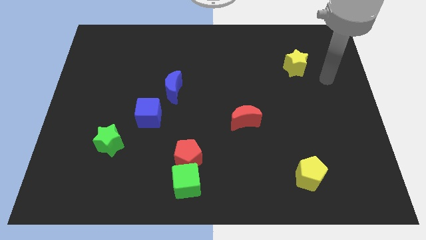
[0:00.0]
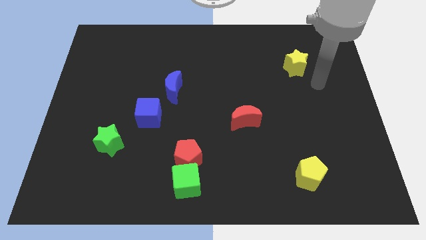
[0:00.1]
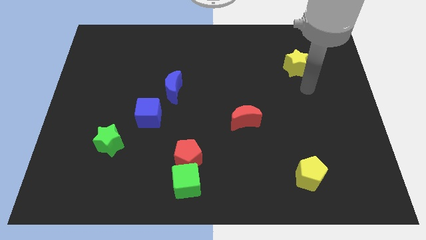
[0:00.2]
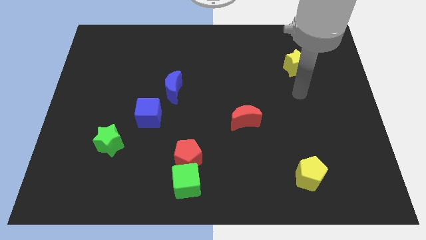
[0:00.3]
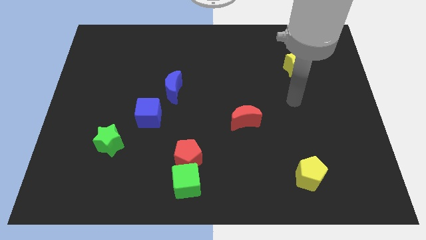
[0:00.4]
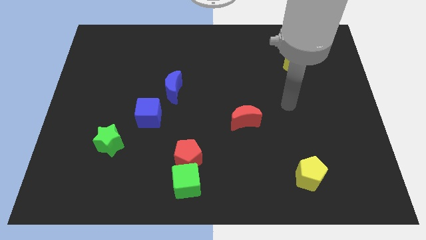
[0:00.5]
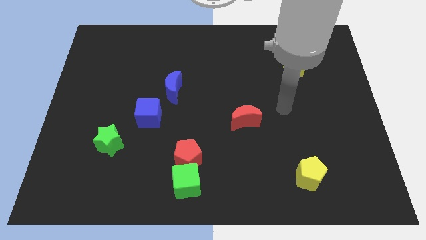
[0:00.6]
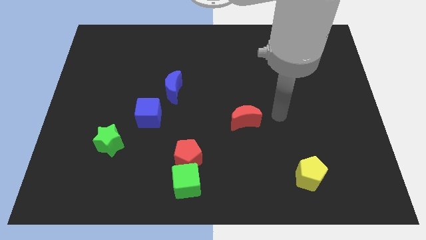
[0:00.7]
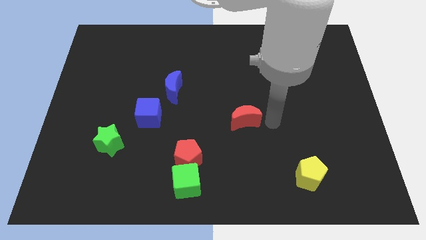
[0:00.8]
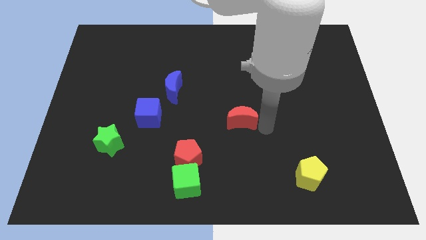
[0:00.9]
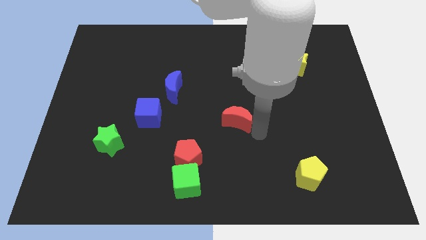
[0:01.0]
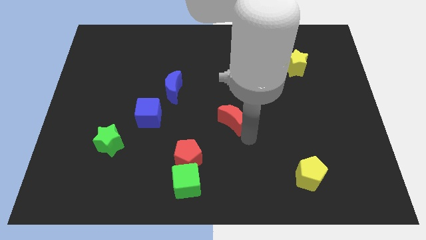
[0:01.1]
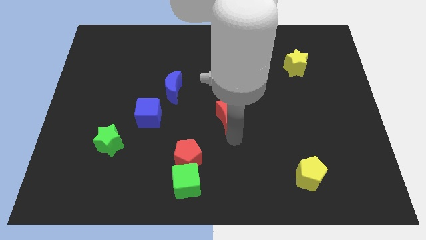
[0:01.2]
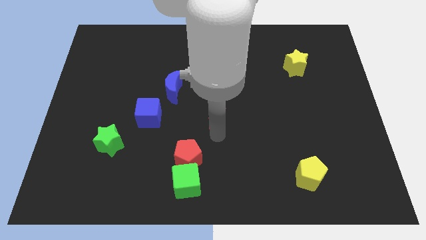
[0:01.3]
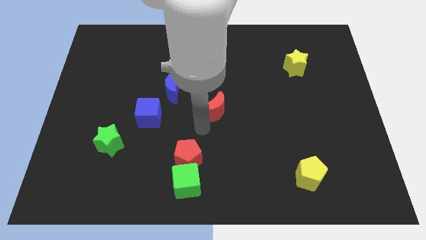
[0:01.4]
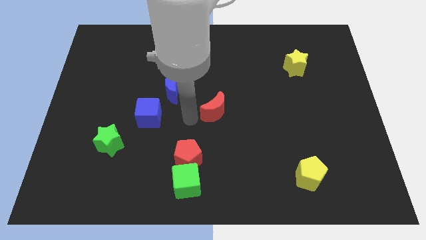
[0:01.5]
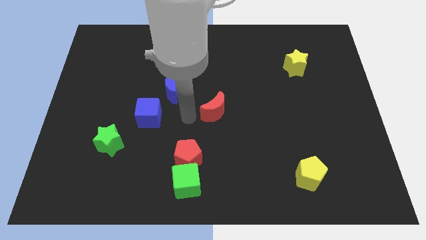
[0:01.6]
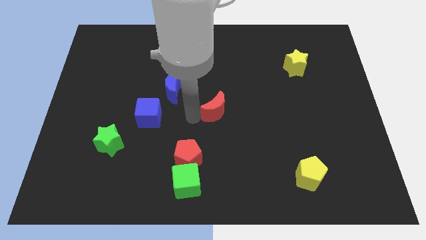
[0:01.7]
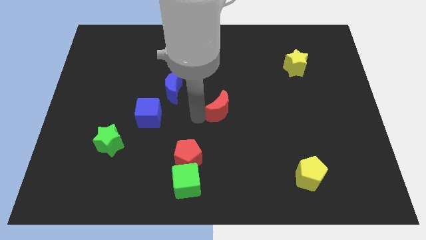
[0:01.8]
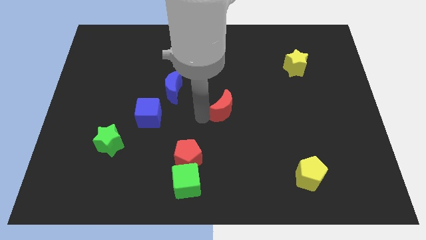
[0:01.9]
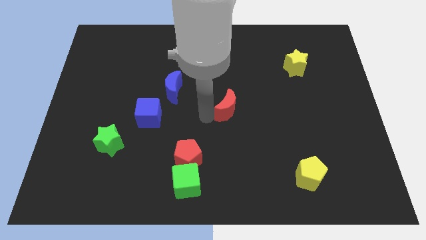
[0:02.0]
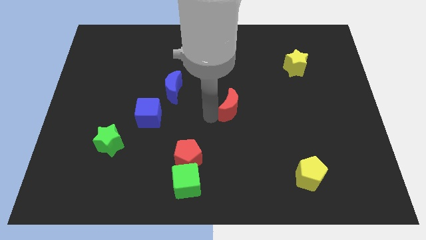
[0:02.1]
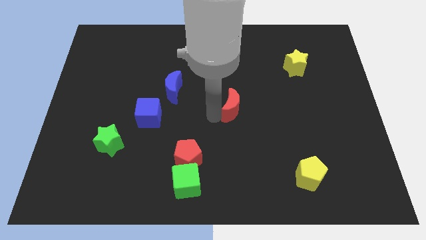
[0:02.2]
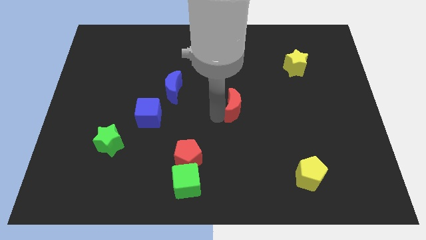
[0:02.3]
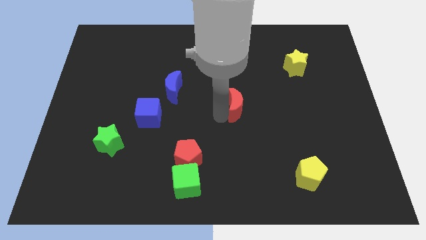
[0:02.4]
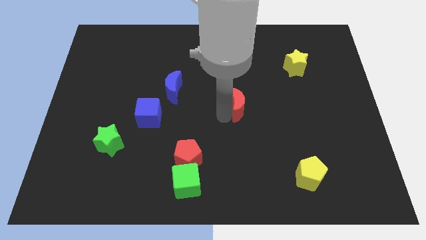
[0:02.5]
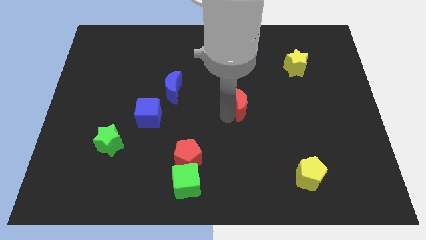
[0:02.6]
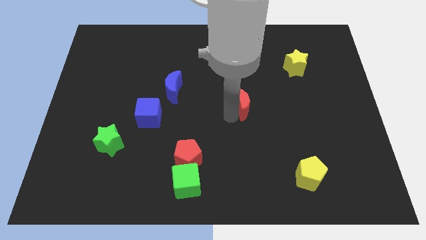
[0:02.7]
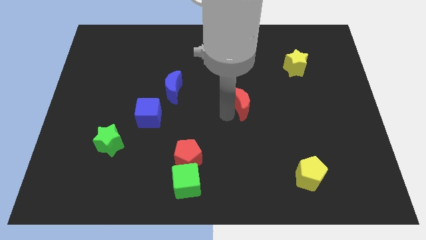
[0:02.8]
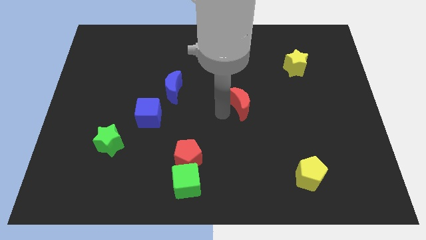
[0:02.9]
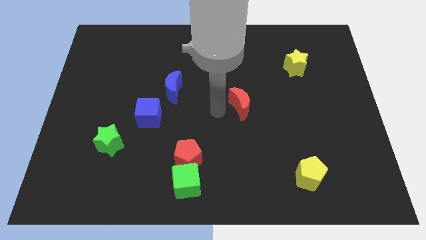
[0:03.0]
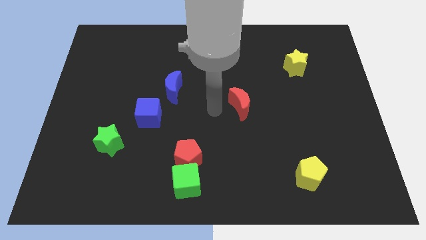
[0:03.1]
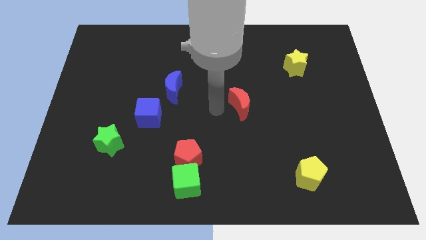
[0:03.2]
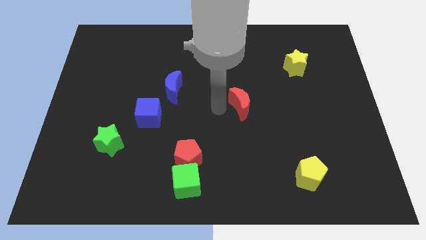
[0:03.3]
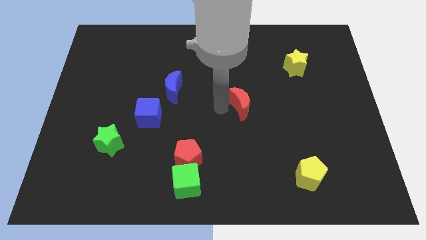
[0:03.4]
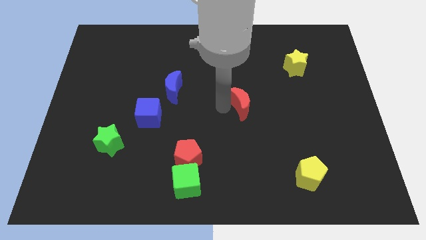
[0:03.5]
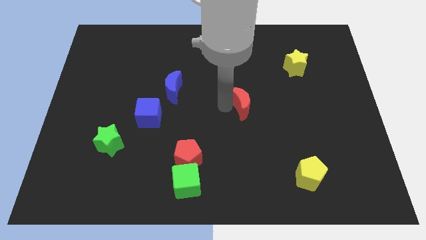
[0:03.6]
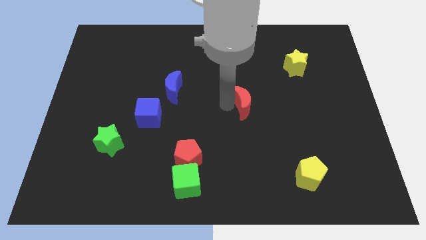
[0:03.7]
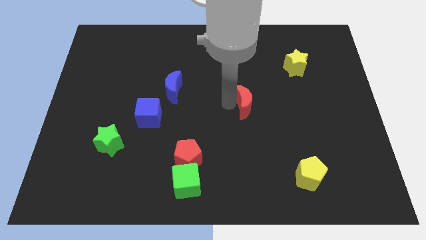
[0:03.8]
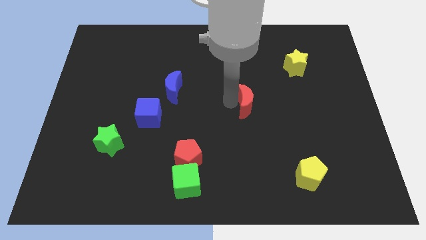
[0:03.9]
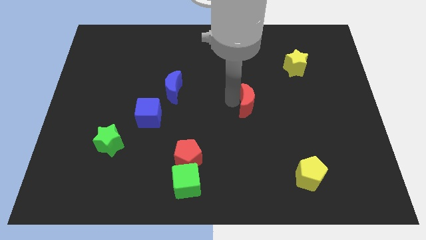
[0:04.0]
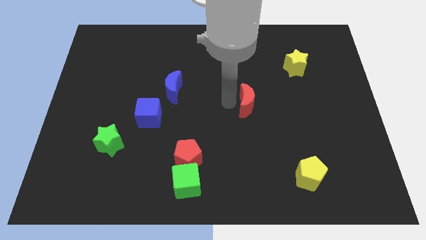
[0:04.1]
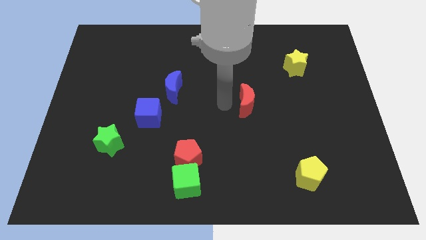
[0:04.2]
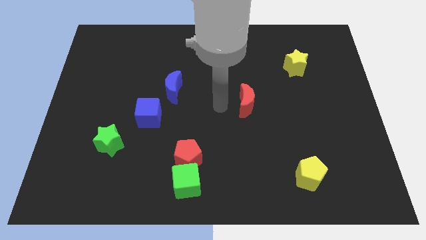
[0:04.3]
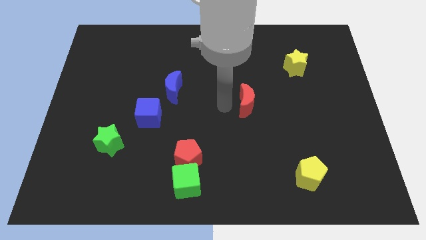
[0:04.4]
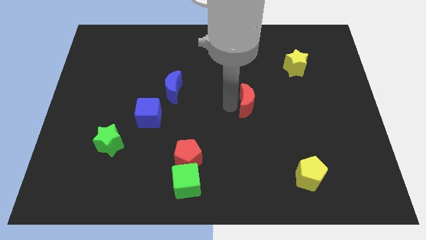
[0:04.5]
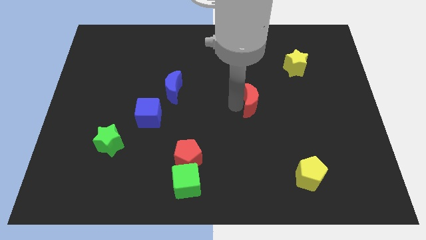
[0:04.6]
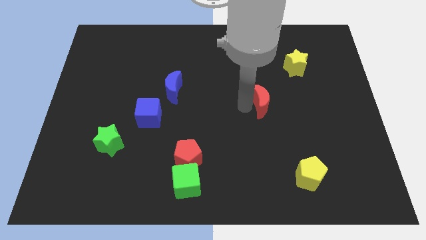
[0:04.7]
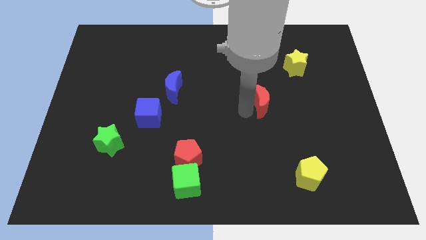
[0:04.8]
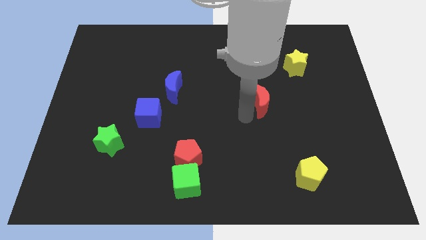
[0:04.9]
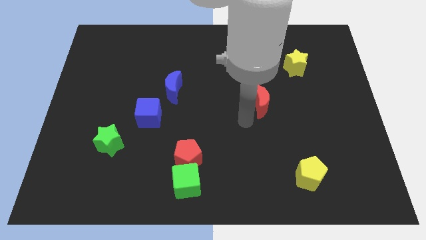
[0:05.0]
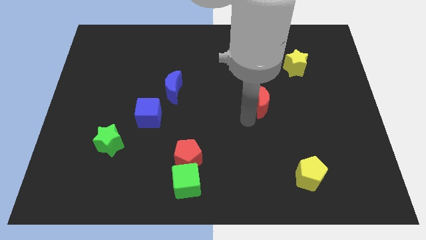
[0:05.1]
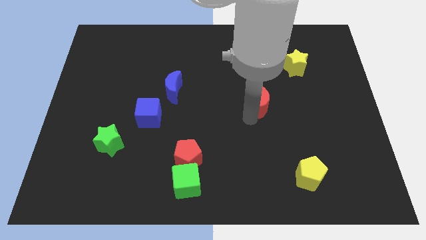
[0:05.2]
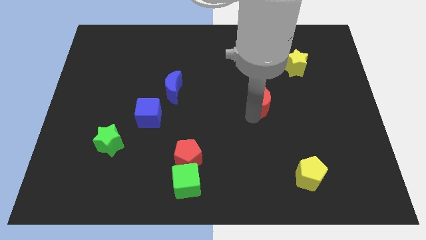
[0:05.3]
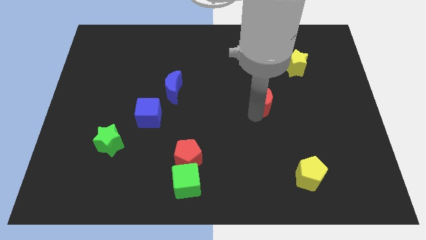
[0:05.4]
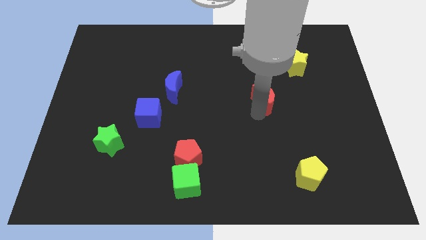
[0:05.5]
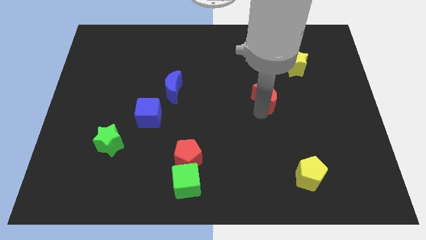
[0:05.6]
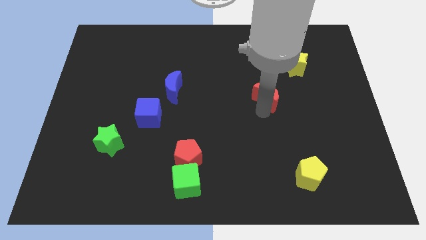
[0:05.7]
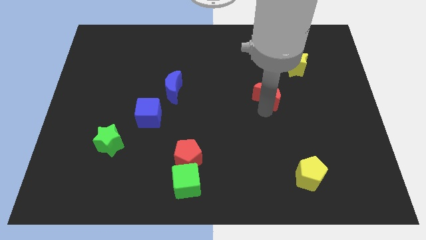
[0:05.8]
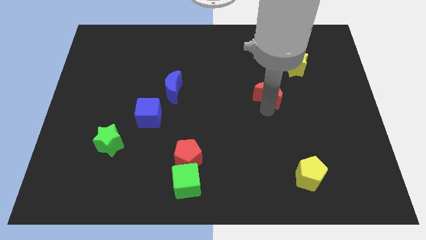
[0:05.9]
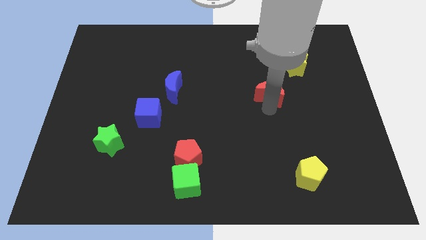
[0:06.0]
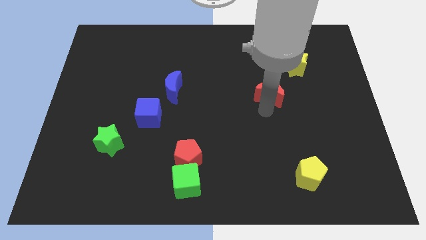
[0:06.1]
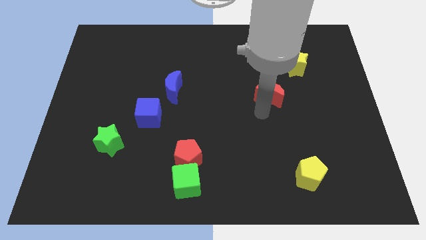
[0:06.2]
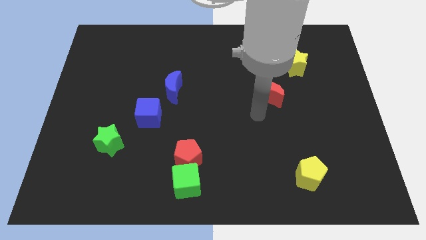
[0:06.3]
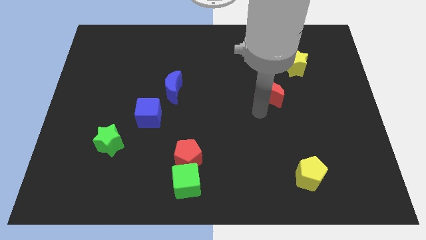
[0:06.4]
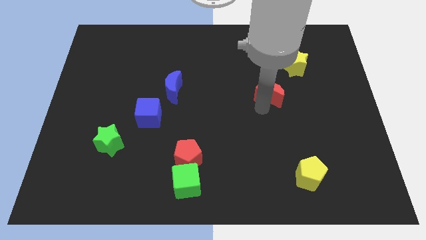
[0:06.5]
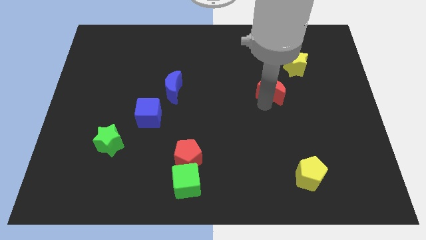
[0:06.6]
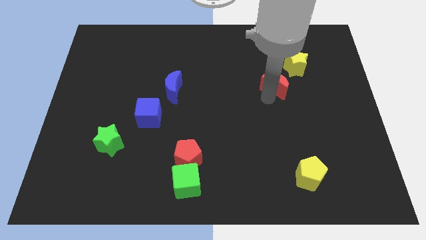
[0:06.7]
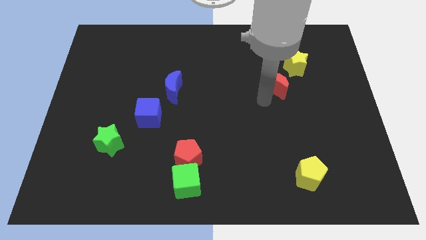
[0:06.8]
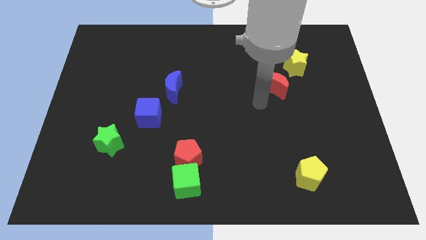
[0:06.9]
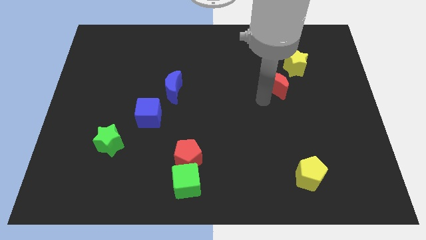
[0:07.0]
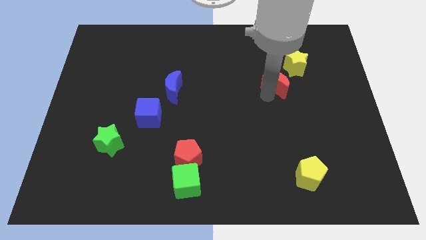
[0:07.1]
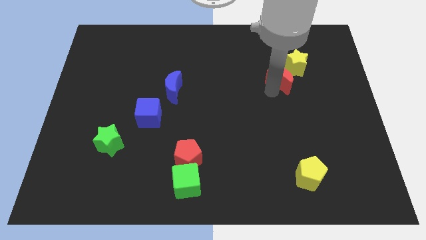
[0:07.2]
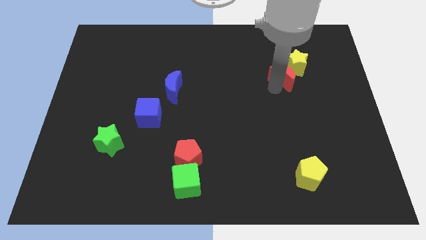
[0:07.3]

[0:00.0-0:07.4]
put the red moon next to the yellow star
